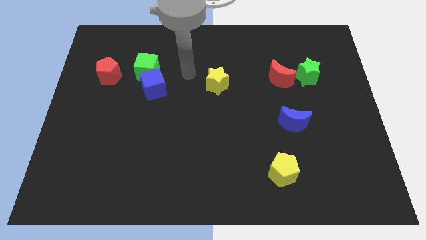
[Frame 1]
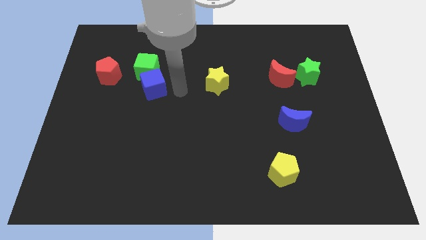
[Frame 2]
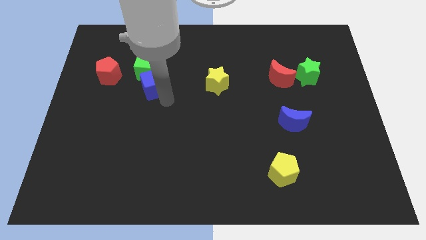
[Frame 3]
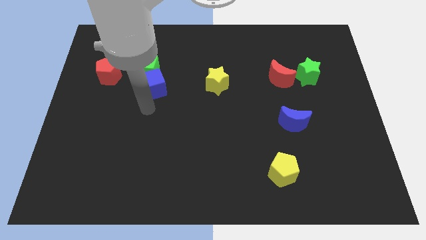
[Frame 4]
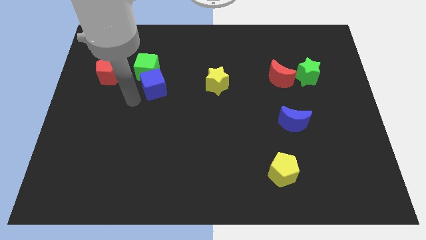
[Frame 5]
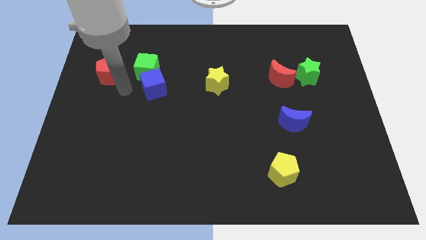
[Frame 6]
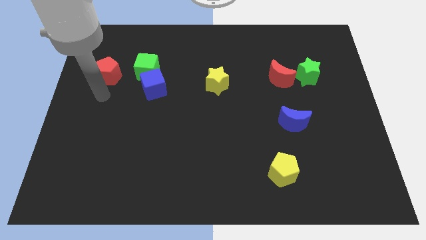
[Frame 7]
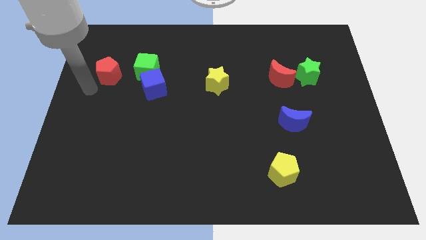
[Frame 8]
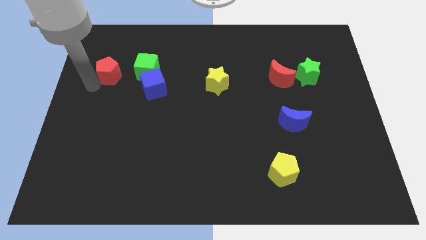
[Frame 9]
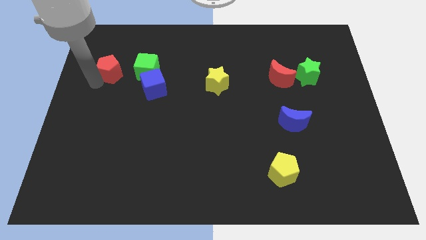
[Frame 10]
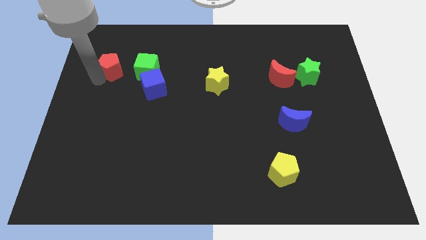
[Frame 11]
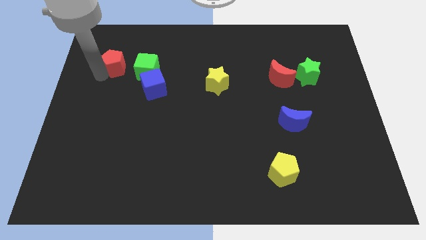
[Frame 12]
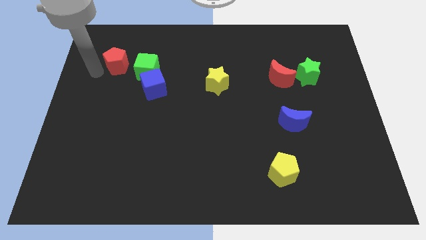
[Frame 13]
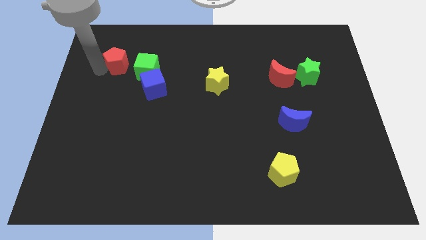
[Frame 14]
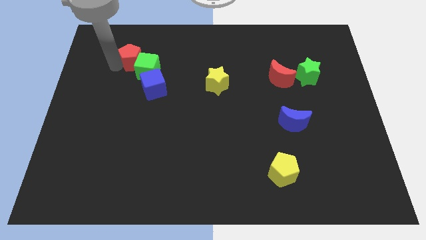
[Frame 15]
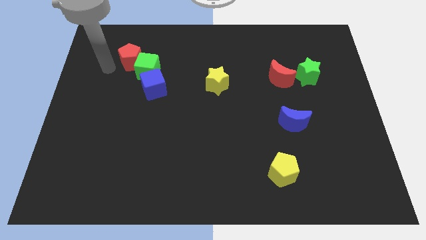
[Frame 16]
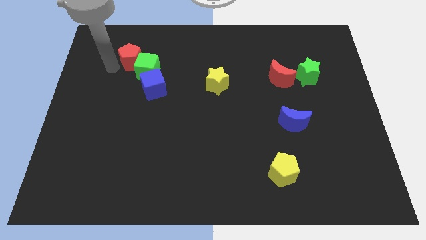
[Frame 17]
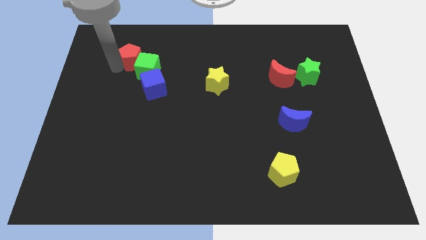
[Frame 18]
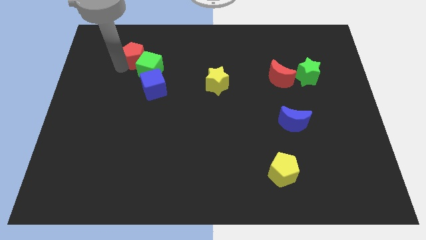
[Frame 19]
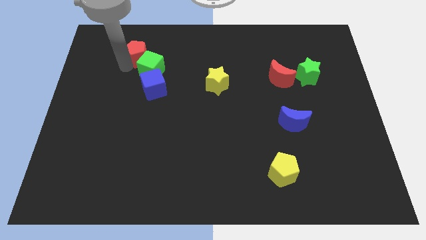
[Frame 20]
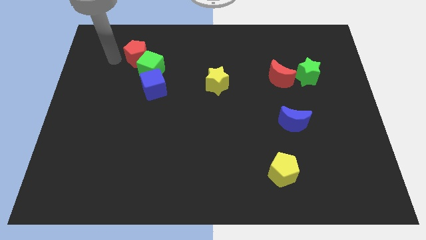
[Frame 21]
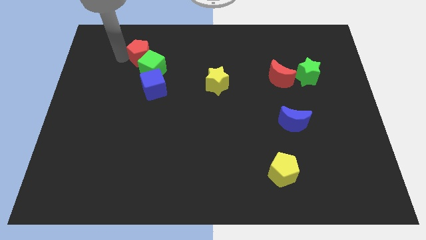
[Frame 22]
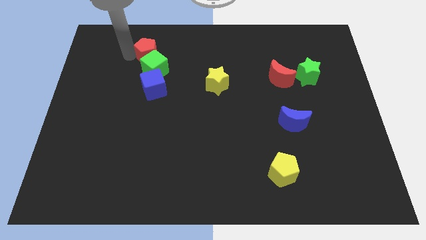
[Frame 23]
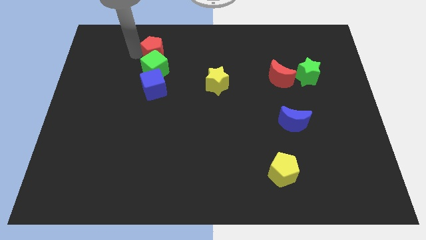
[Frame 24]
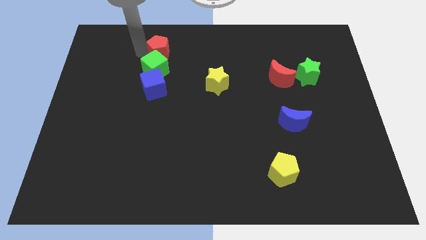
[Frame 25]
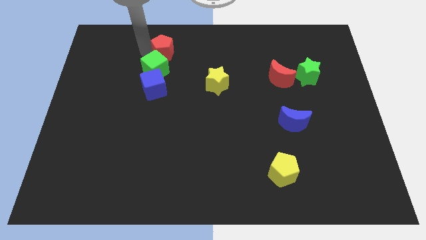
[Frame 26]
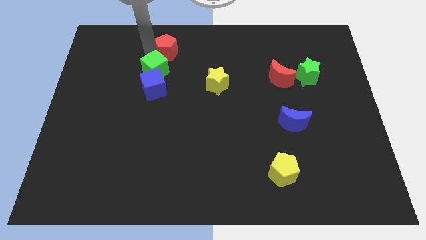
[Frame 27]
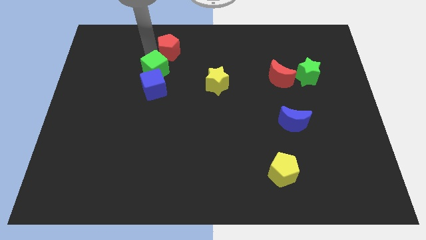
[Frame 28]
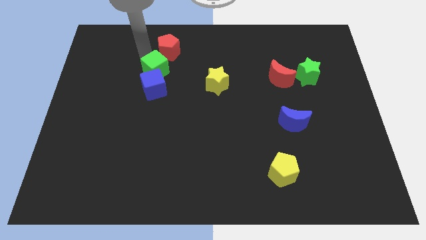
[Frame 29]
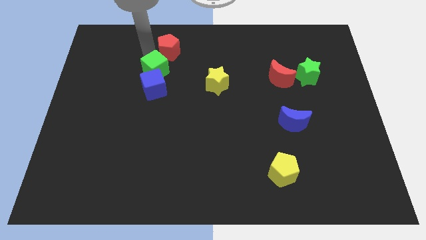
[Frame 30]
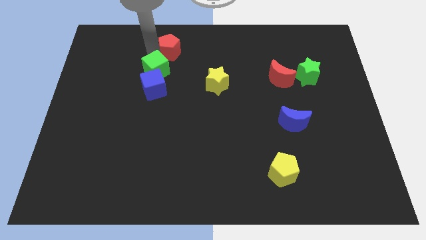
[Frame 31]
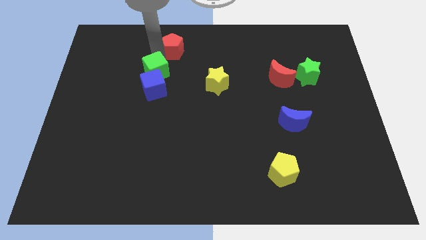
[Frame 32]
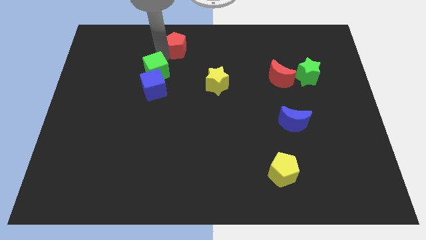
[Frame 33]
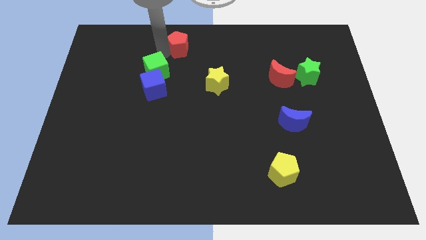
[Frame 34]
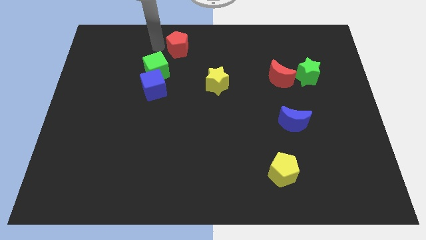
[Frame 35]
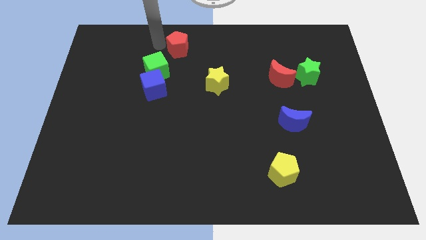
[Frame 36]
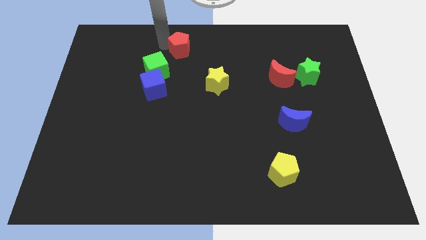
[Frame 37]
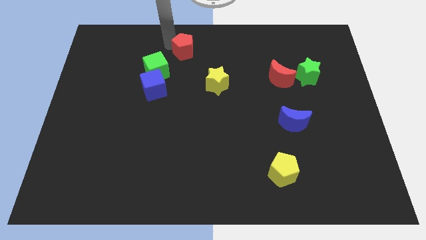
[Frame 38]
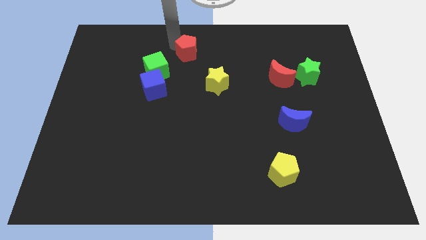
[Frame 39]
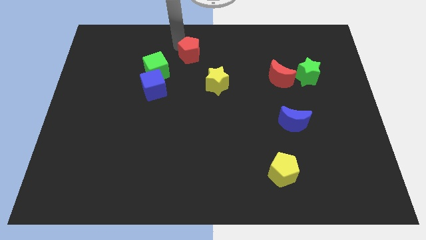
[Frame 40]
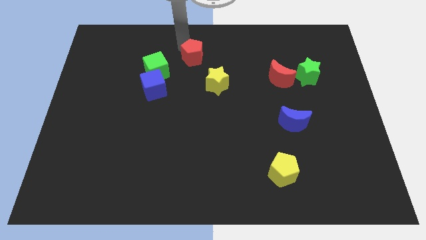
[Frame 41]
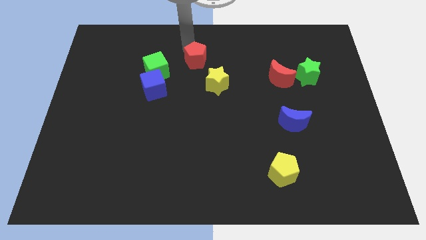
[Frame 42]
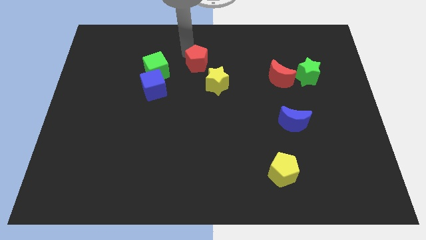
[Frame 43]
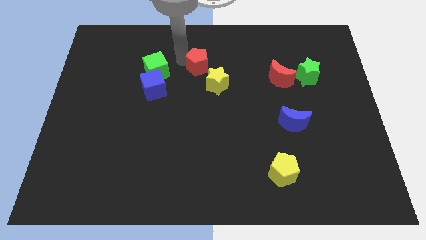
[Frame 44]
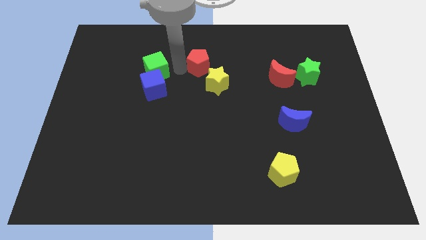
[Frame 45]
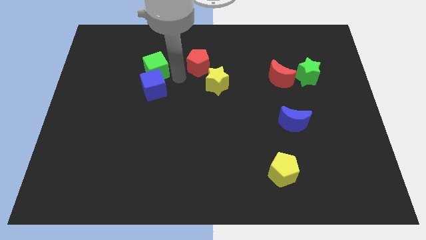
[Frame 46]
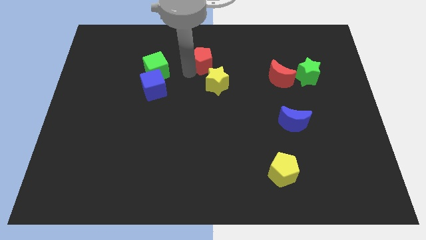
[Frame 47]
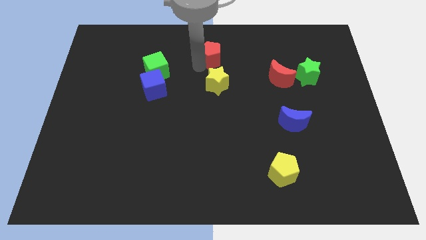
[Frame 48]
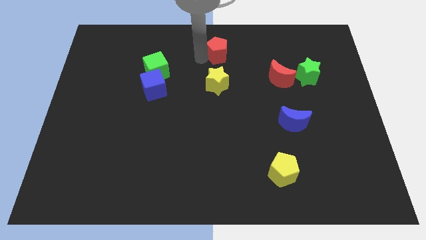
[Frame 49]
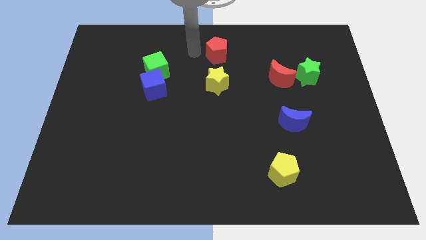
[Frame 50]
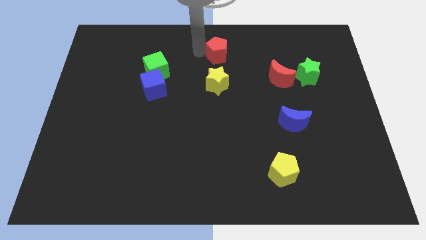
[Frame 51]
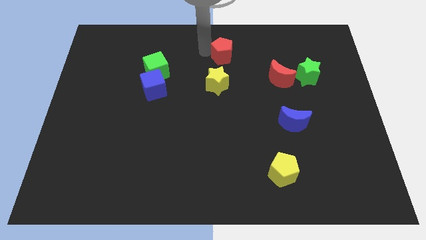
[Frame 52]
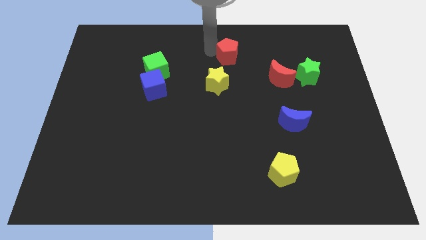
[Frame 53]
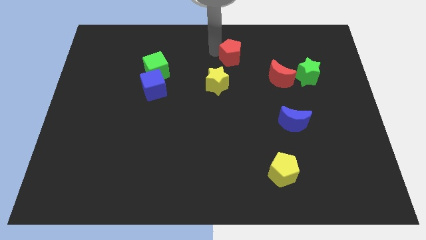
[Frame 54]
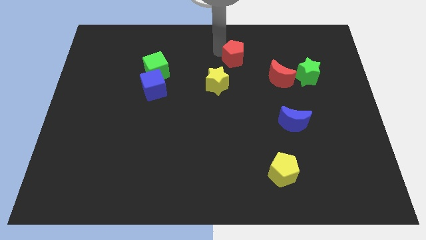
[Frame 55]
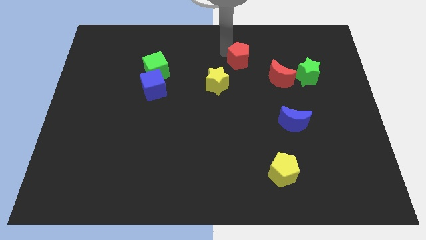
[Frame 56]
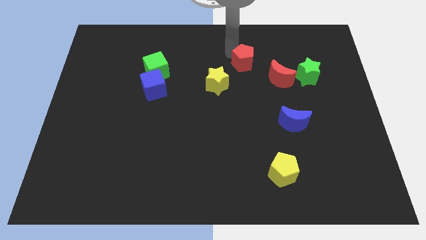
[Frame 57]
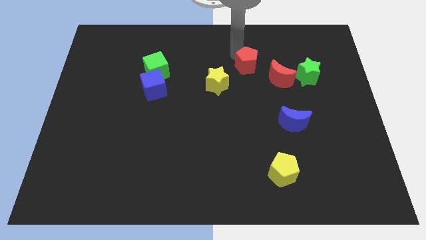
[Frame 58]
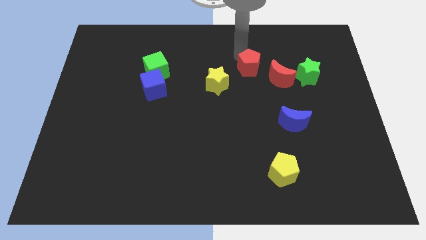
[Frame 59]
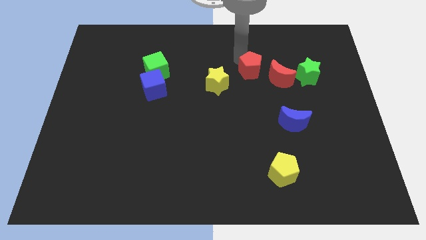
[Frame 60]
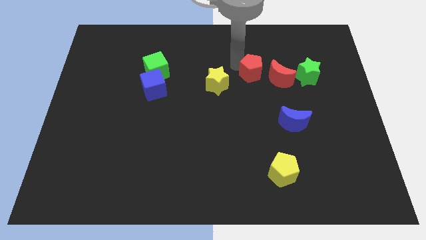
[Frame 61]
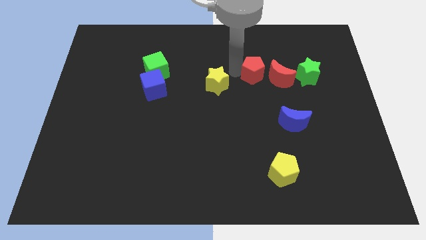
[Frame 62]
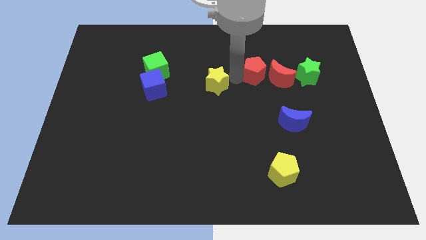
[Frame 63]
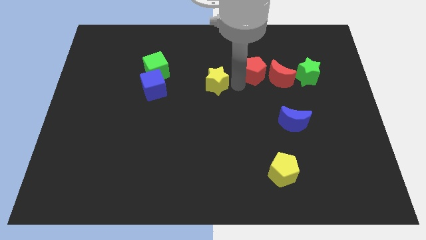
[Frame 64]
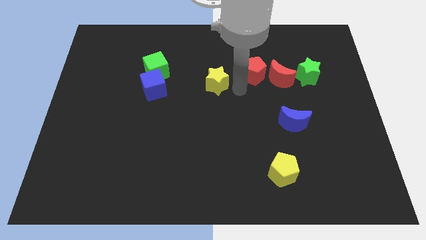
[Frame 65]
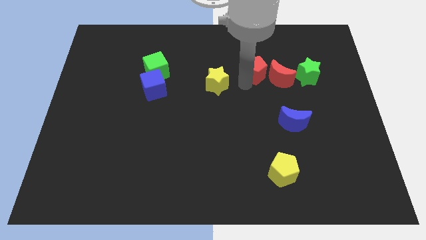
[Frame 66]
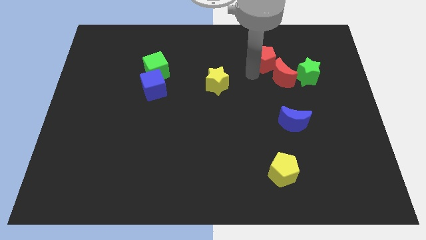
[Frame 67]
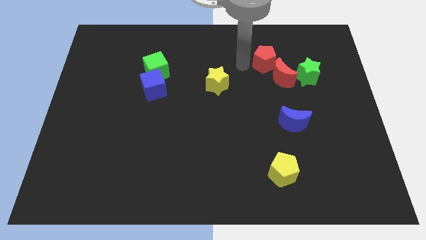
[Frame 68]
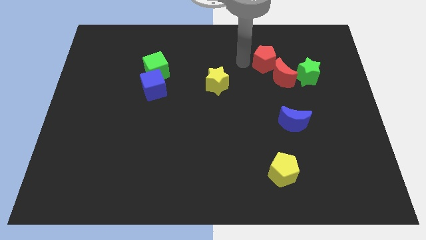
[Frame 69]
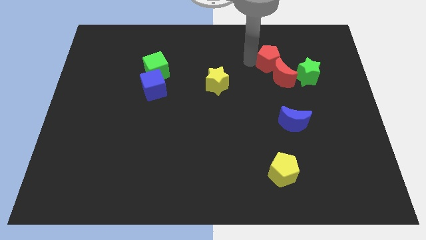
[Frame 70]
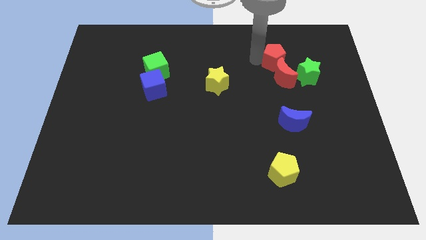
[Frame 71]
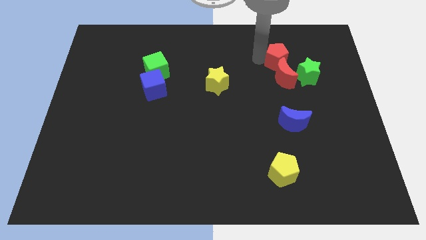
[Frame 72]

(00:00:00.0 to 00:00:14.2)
put the red pentagon to the top right of the red moon
